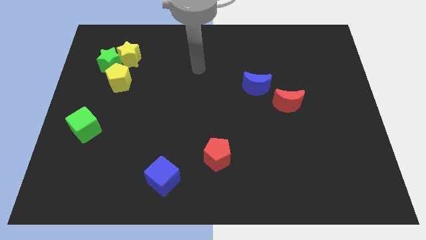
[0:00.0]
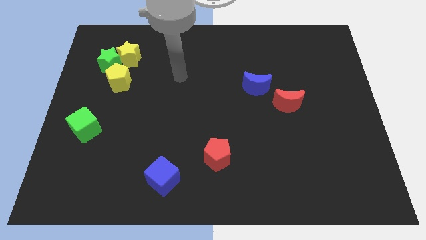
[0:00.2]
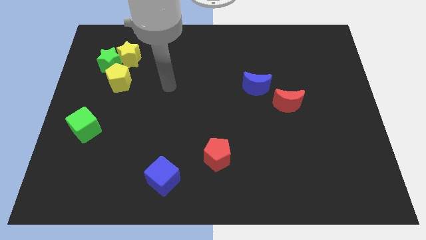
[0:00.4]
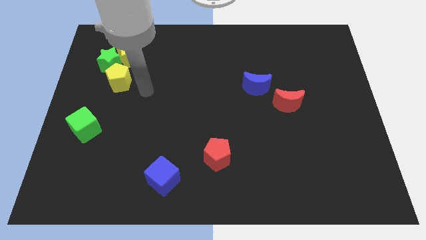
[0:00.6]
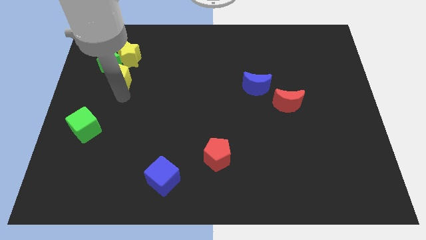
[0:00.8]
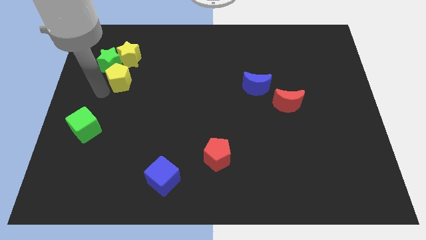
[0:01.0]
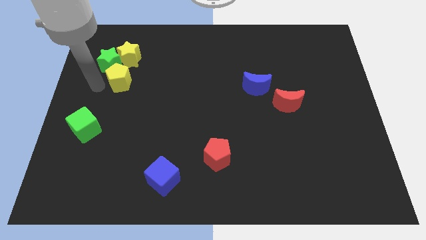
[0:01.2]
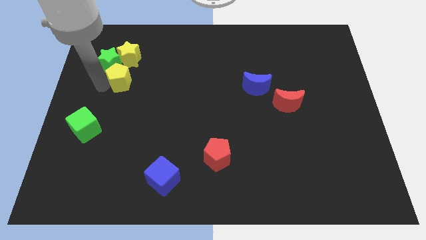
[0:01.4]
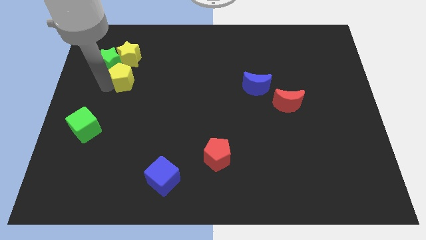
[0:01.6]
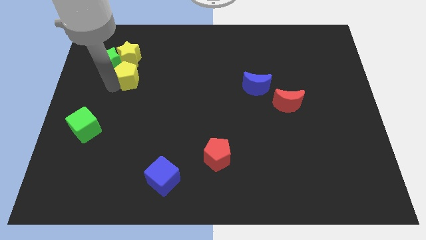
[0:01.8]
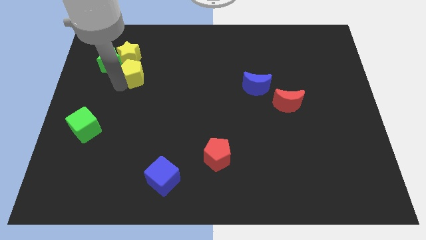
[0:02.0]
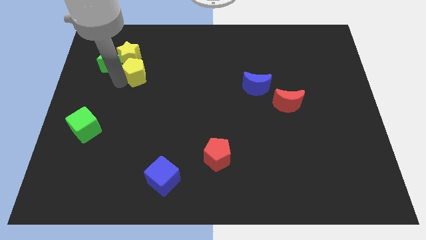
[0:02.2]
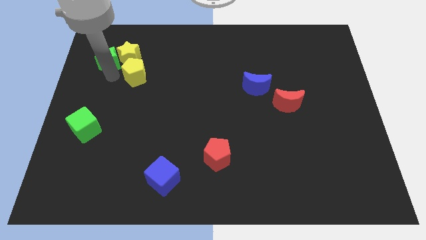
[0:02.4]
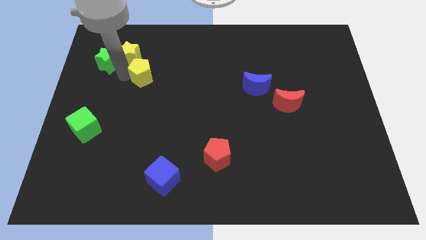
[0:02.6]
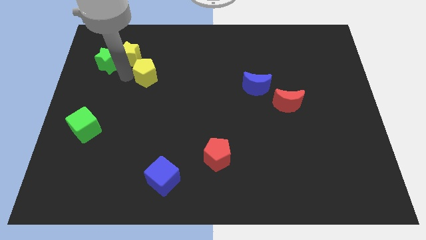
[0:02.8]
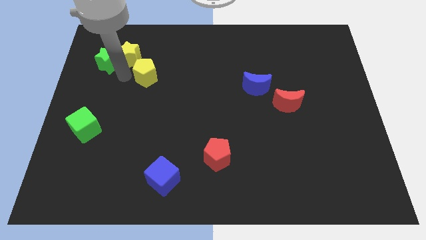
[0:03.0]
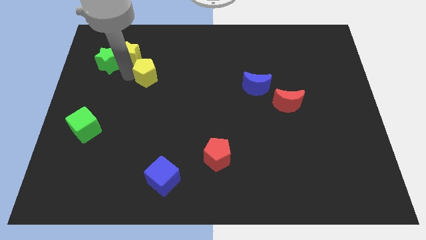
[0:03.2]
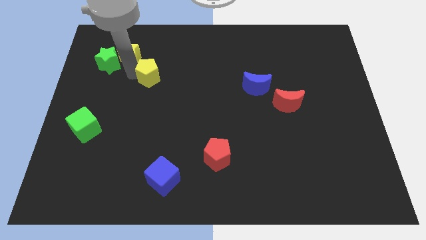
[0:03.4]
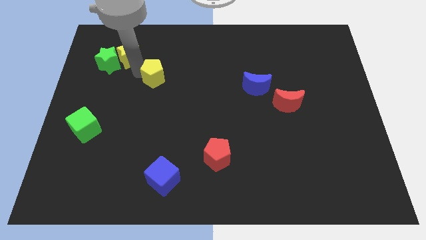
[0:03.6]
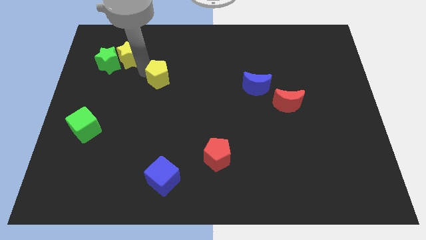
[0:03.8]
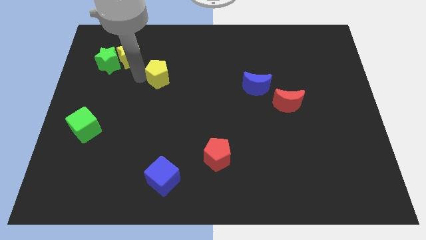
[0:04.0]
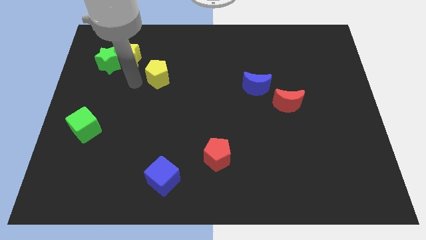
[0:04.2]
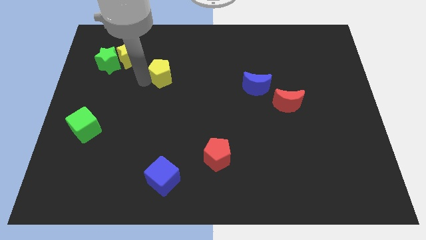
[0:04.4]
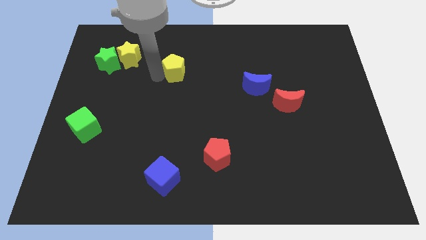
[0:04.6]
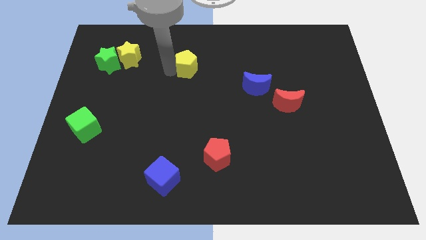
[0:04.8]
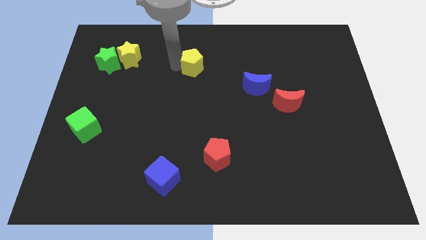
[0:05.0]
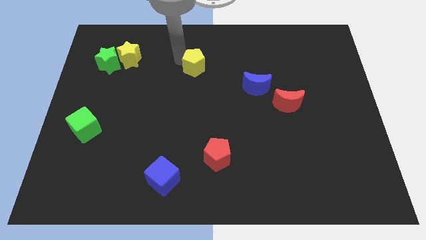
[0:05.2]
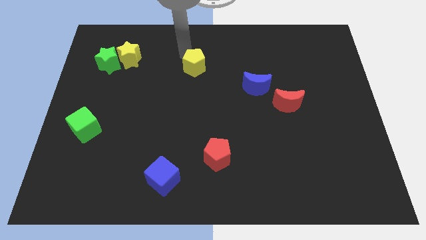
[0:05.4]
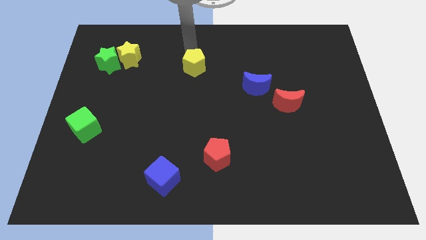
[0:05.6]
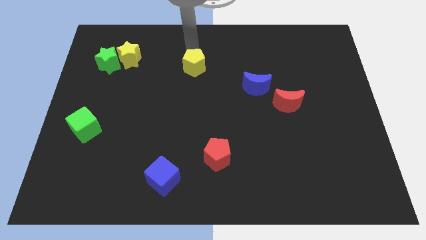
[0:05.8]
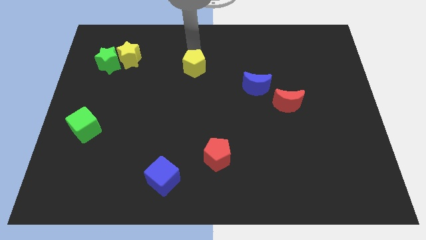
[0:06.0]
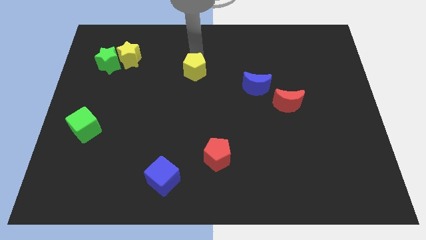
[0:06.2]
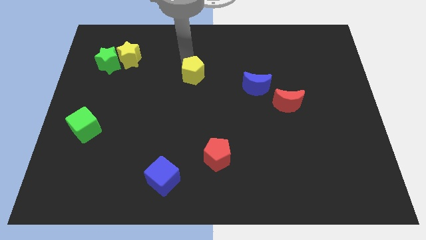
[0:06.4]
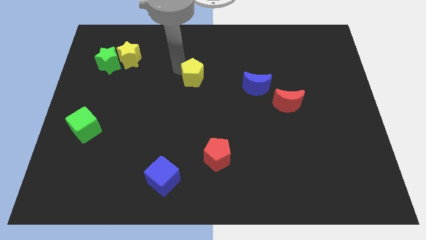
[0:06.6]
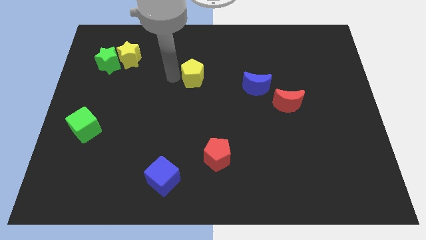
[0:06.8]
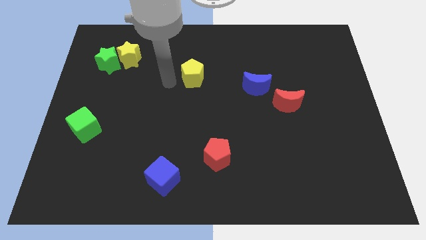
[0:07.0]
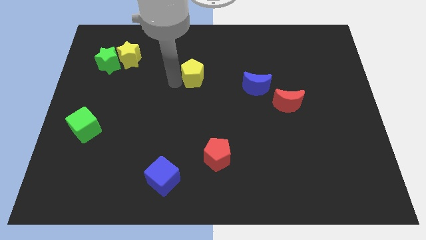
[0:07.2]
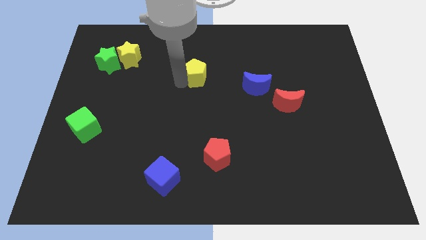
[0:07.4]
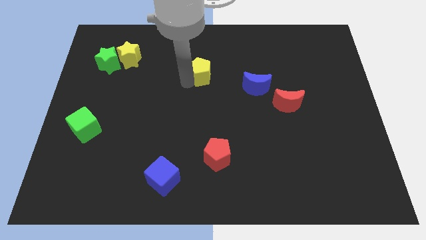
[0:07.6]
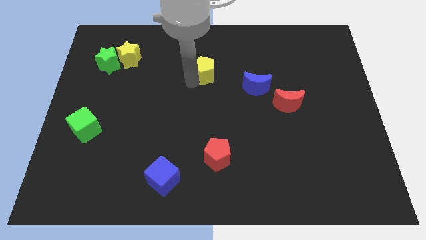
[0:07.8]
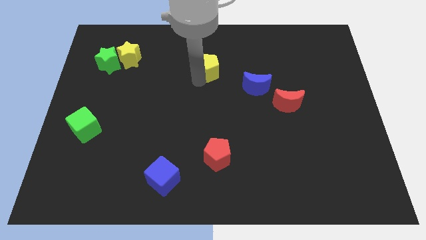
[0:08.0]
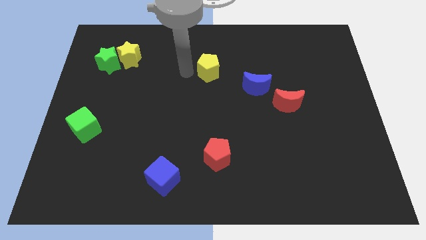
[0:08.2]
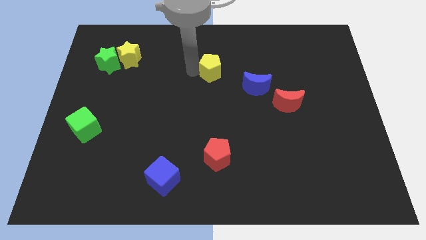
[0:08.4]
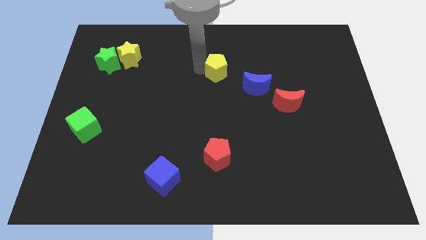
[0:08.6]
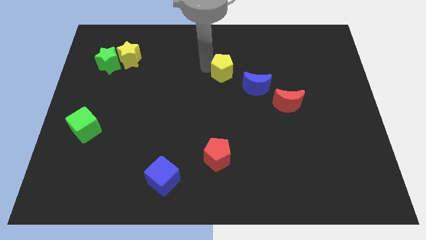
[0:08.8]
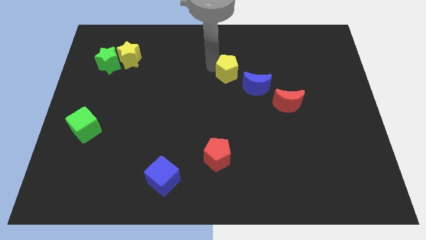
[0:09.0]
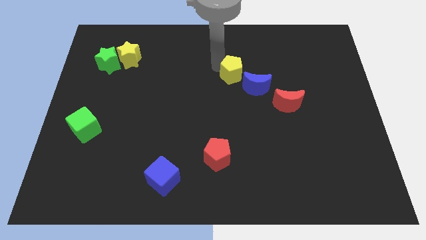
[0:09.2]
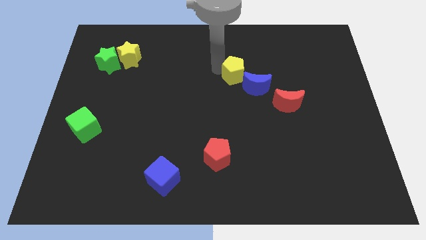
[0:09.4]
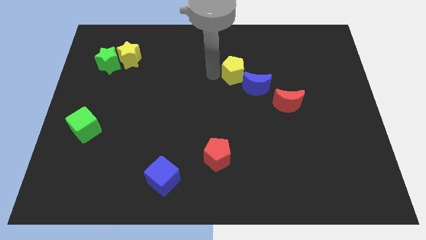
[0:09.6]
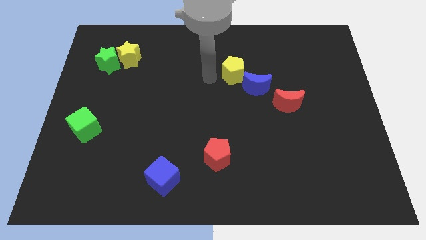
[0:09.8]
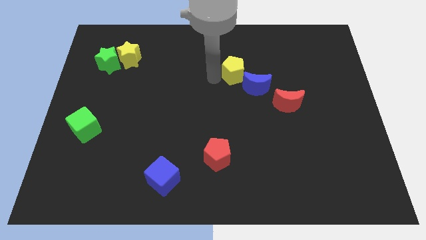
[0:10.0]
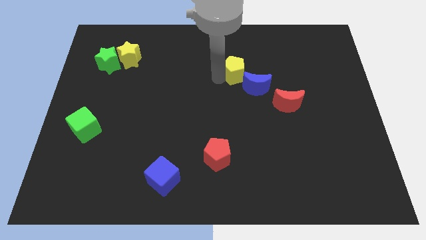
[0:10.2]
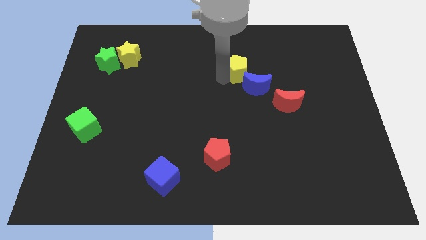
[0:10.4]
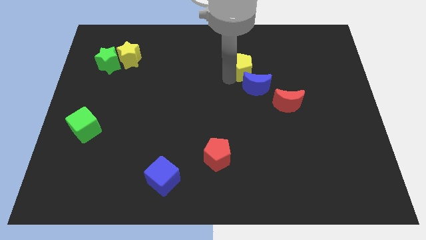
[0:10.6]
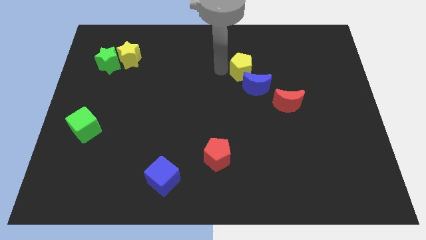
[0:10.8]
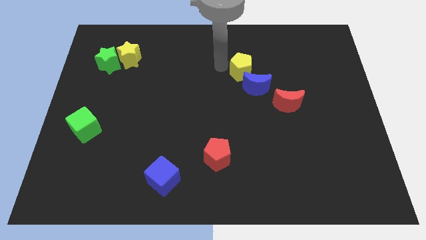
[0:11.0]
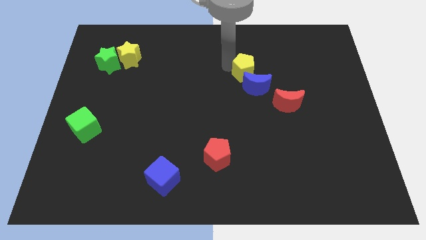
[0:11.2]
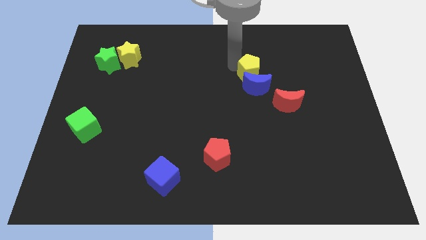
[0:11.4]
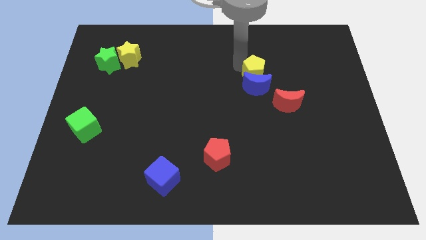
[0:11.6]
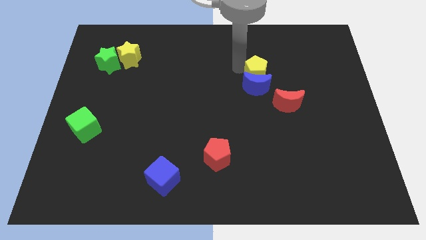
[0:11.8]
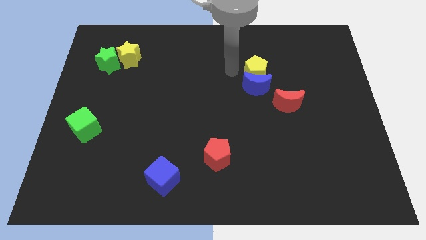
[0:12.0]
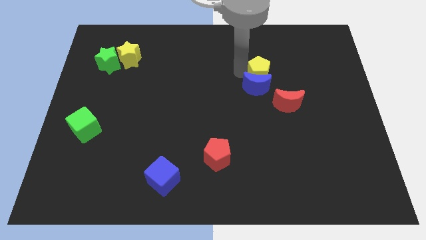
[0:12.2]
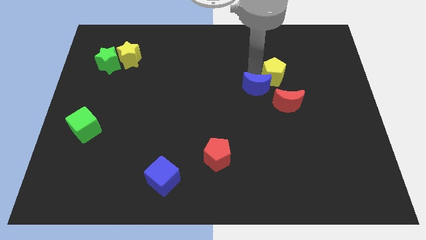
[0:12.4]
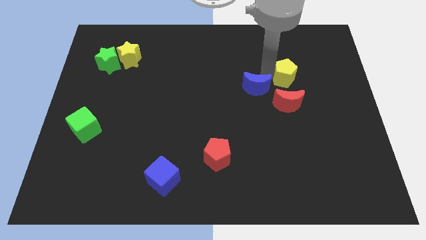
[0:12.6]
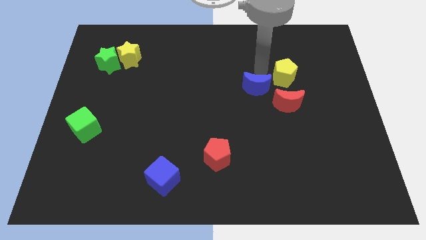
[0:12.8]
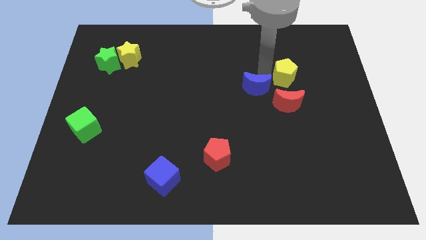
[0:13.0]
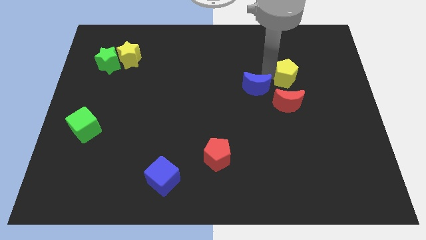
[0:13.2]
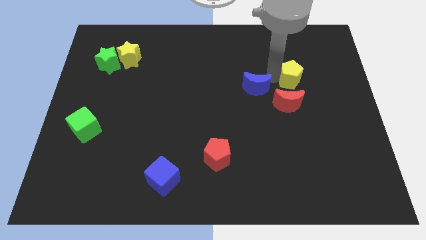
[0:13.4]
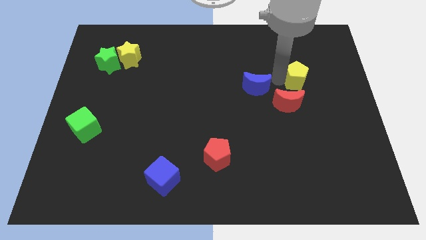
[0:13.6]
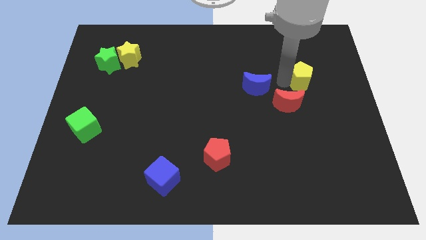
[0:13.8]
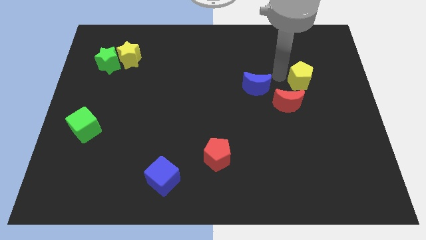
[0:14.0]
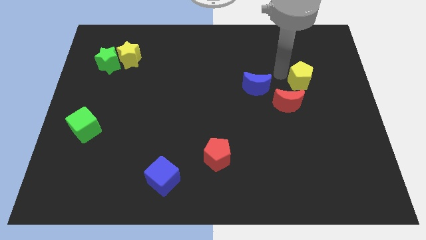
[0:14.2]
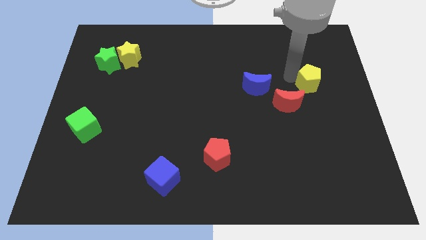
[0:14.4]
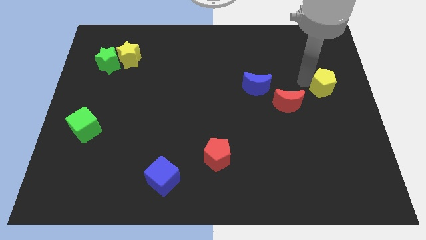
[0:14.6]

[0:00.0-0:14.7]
move the yellow pentagon to the right side
